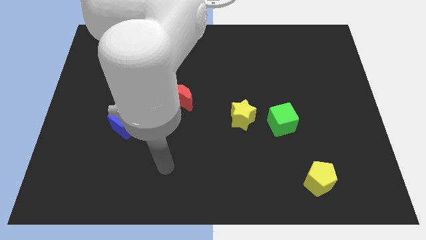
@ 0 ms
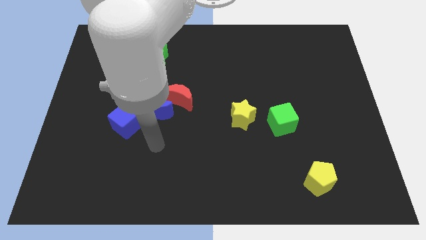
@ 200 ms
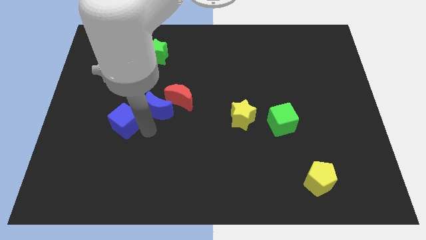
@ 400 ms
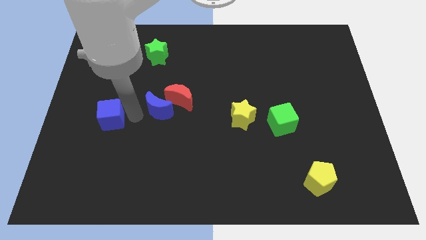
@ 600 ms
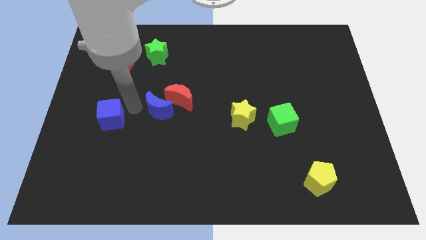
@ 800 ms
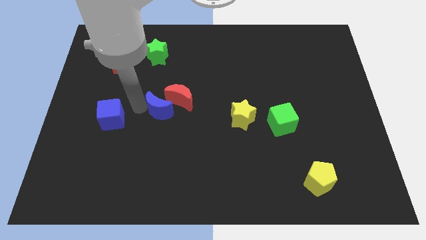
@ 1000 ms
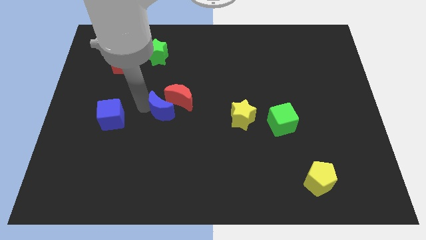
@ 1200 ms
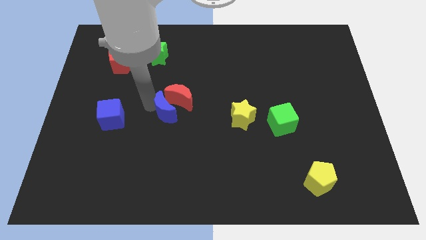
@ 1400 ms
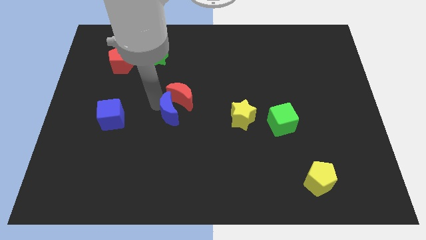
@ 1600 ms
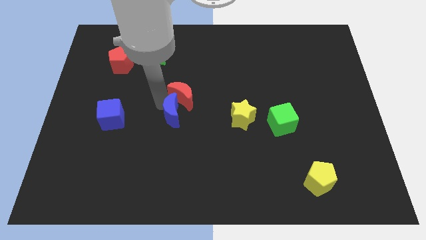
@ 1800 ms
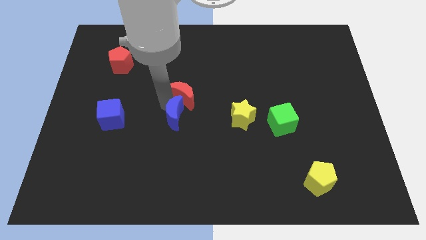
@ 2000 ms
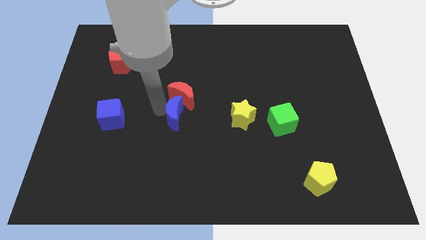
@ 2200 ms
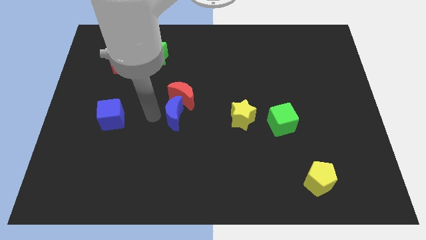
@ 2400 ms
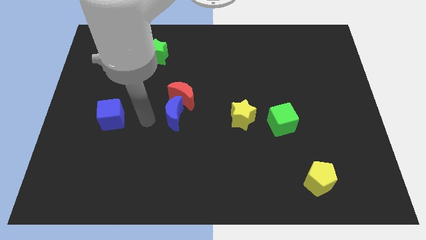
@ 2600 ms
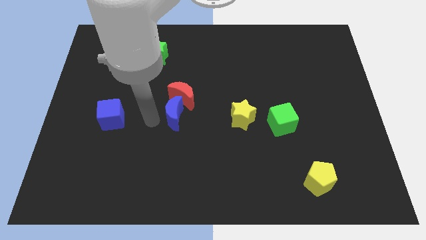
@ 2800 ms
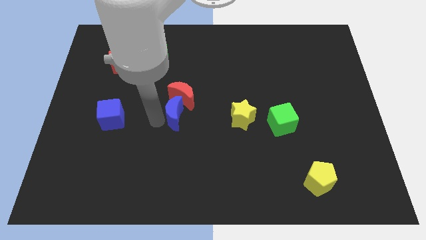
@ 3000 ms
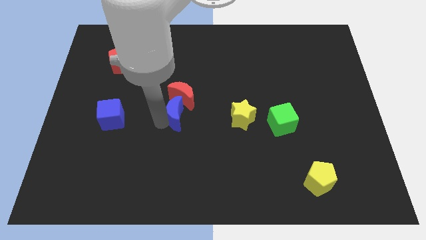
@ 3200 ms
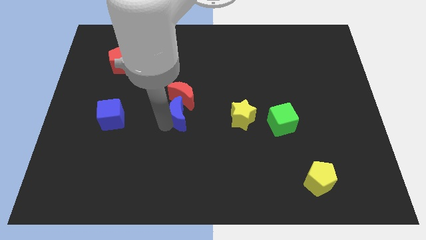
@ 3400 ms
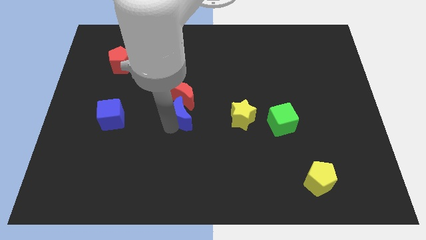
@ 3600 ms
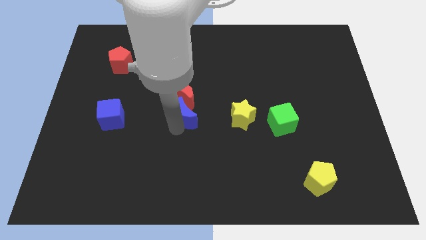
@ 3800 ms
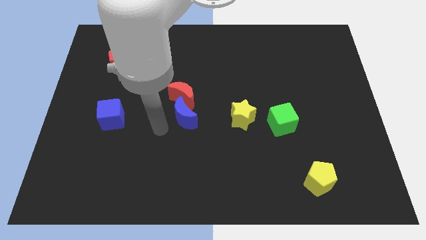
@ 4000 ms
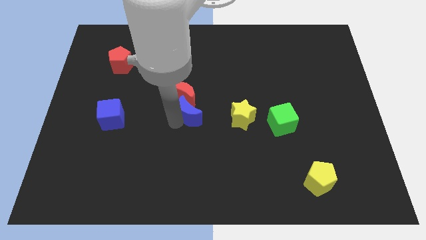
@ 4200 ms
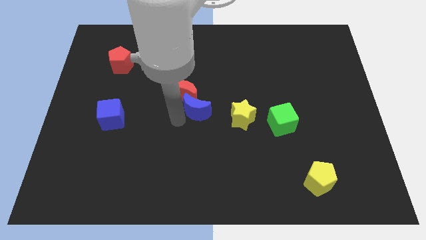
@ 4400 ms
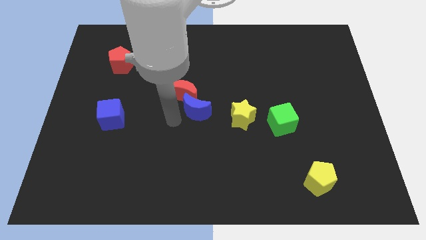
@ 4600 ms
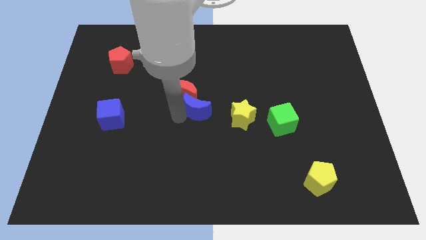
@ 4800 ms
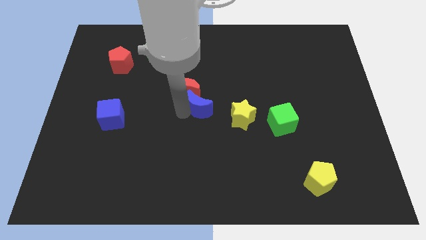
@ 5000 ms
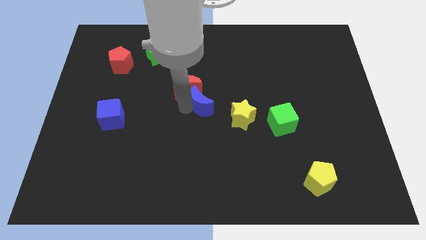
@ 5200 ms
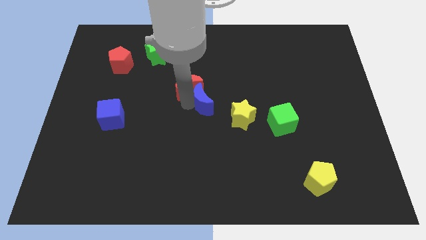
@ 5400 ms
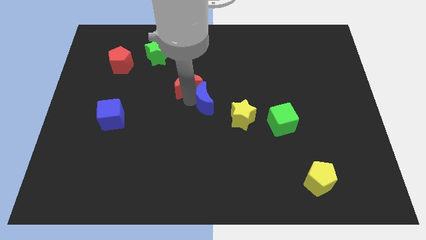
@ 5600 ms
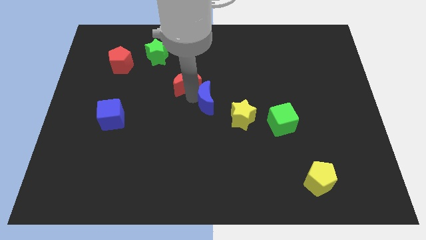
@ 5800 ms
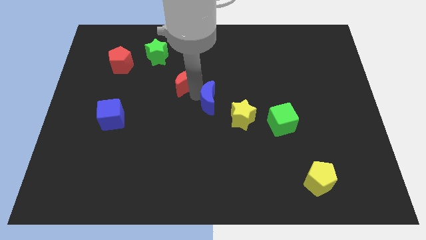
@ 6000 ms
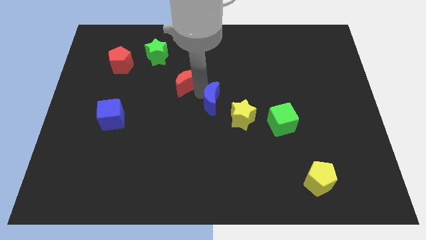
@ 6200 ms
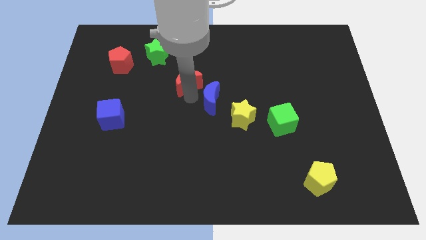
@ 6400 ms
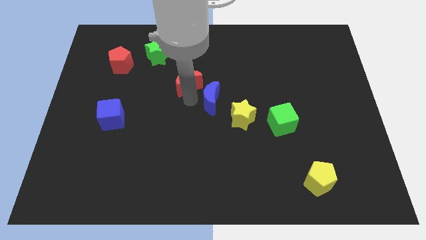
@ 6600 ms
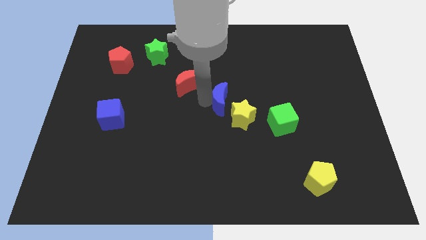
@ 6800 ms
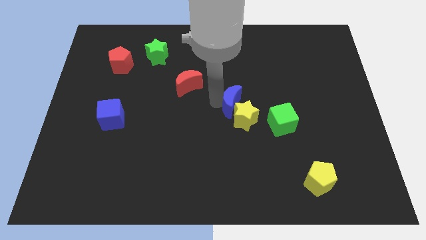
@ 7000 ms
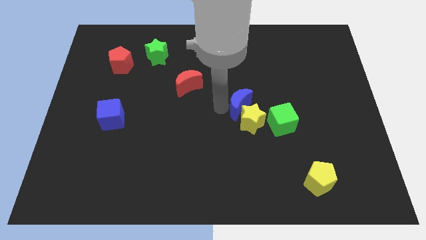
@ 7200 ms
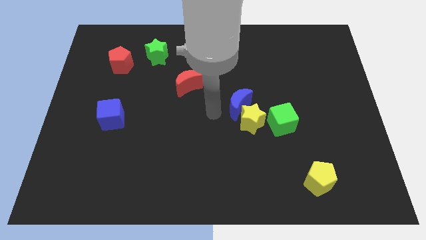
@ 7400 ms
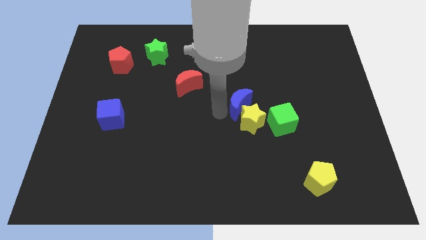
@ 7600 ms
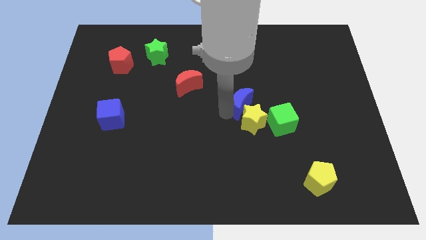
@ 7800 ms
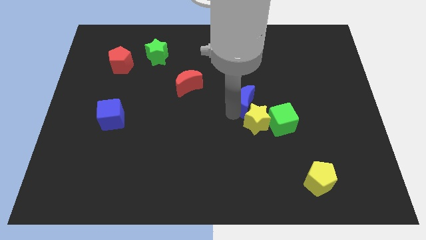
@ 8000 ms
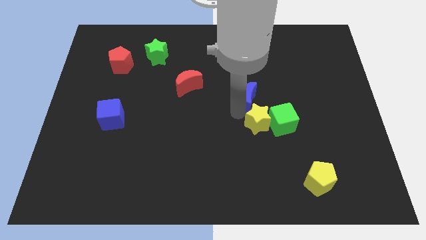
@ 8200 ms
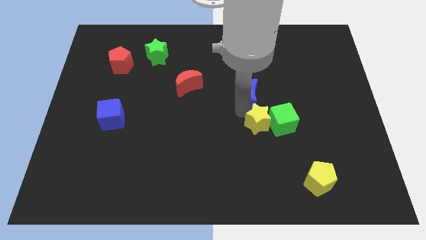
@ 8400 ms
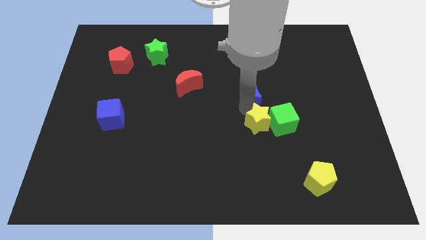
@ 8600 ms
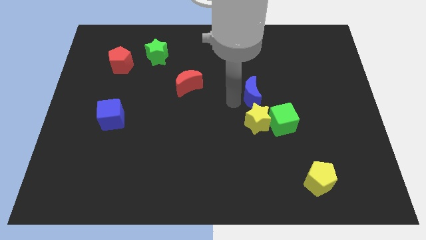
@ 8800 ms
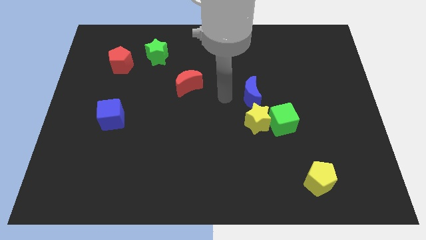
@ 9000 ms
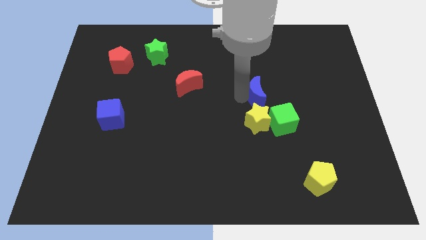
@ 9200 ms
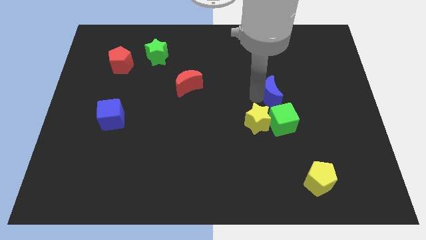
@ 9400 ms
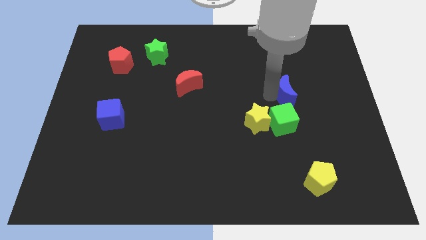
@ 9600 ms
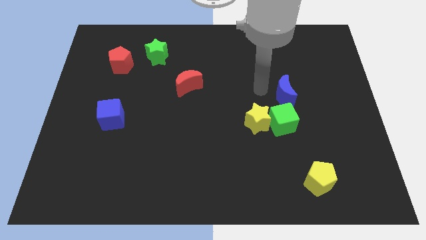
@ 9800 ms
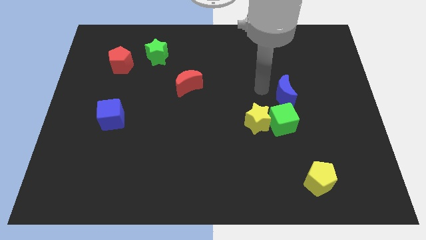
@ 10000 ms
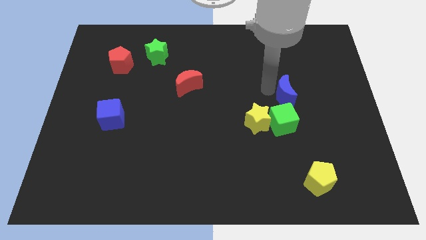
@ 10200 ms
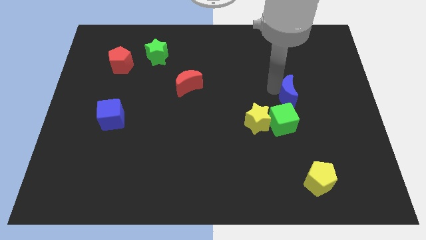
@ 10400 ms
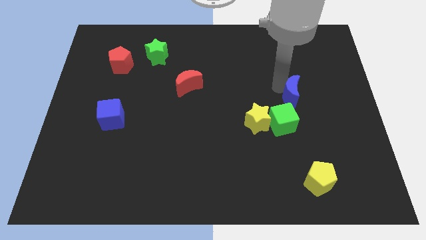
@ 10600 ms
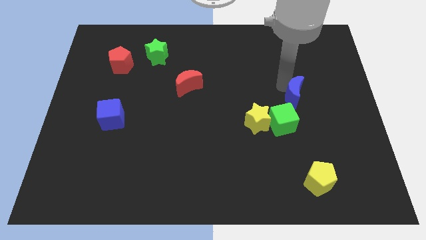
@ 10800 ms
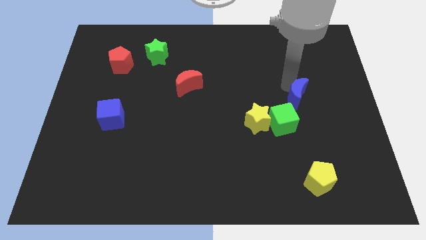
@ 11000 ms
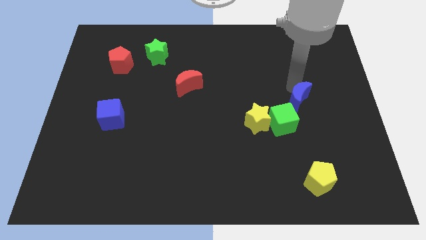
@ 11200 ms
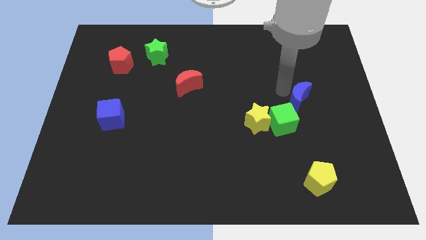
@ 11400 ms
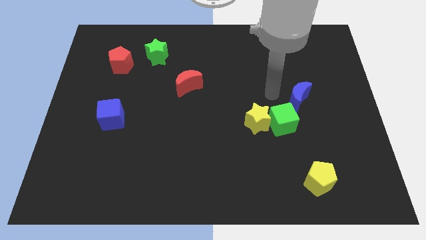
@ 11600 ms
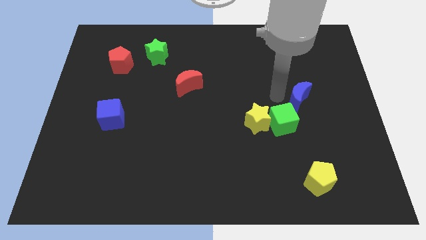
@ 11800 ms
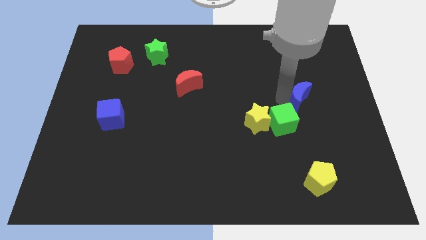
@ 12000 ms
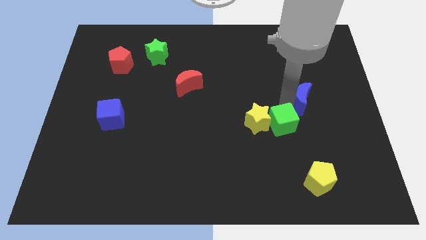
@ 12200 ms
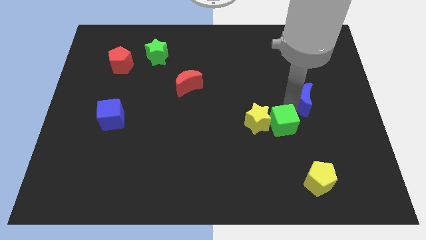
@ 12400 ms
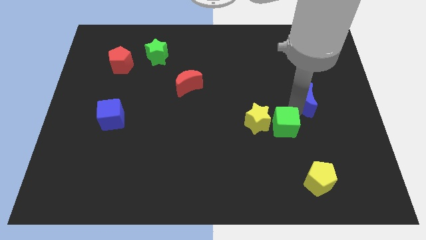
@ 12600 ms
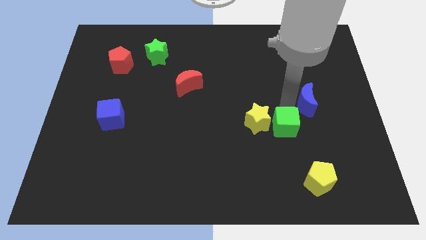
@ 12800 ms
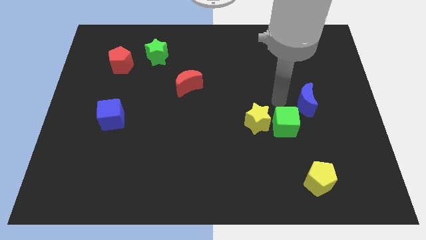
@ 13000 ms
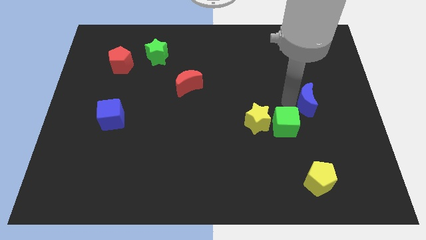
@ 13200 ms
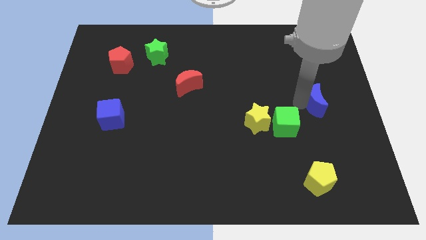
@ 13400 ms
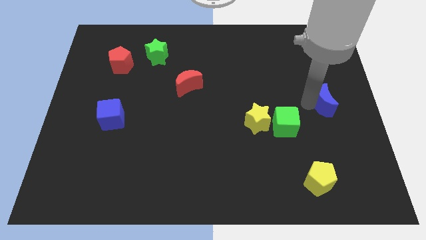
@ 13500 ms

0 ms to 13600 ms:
push the blue moon to the right side of the board
